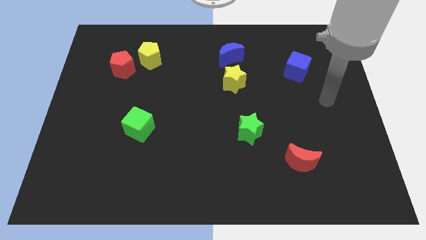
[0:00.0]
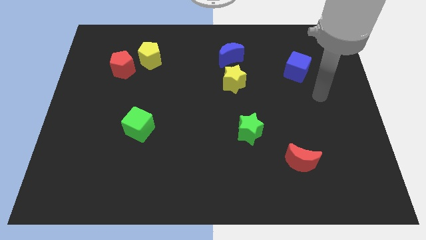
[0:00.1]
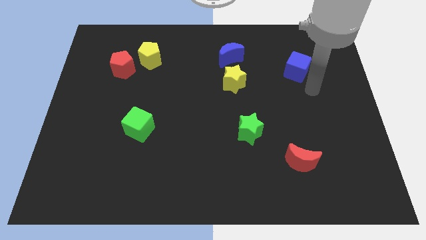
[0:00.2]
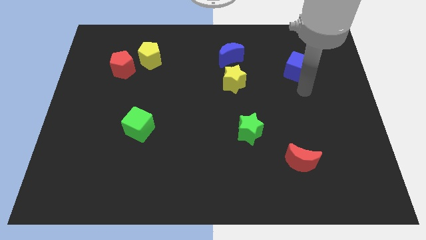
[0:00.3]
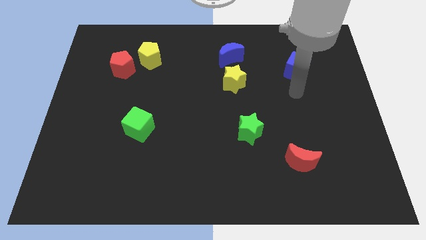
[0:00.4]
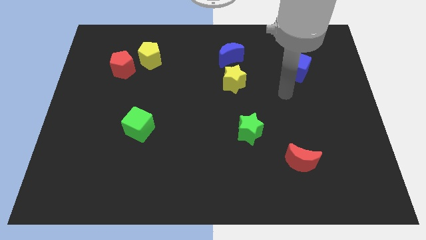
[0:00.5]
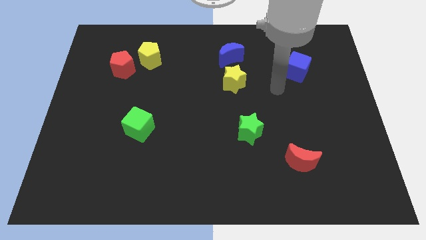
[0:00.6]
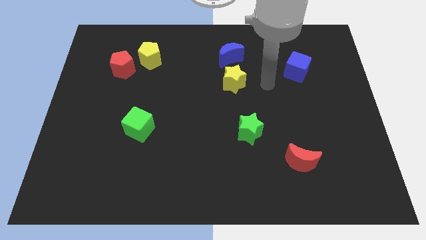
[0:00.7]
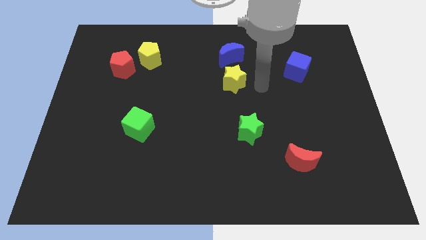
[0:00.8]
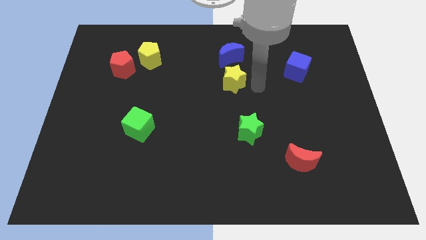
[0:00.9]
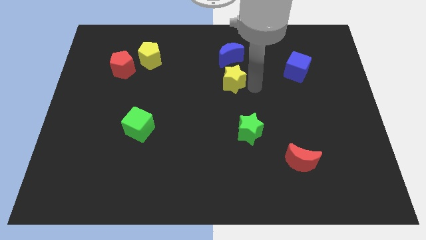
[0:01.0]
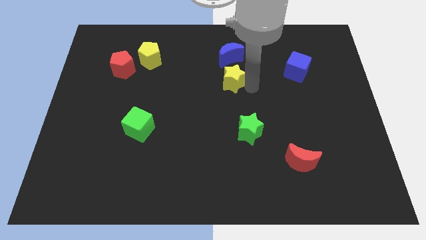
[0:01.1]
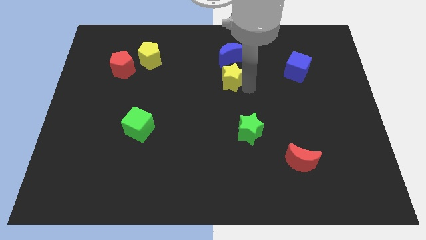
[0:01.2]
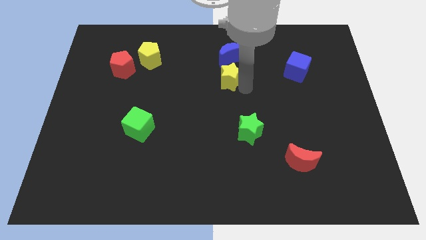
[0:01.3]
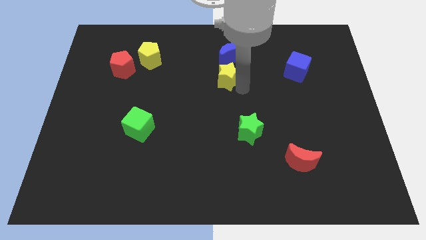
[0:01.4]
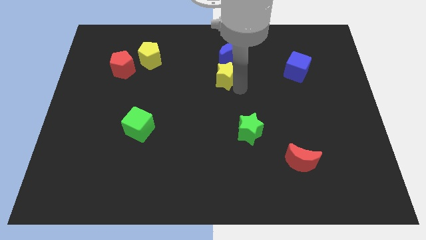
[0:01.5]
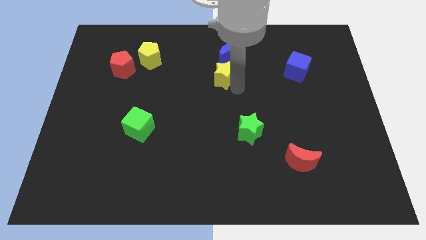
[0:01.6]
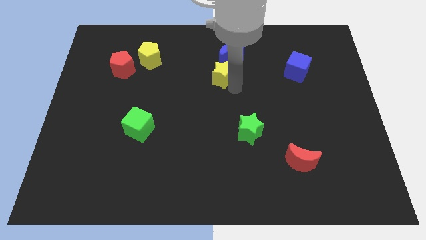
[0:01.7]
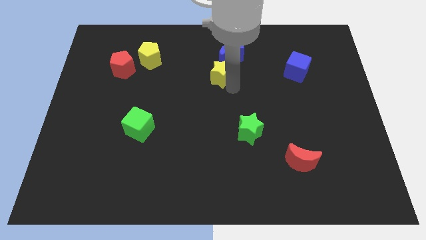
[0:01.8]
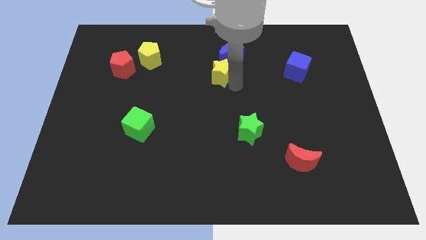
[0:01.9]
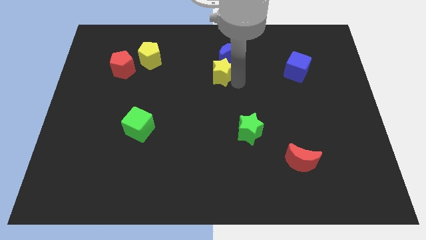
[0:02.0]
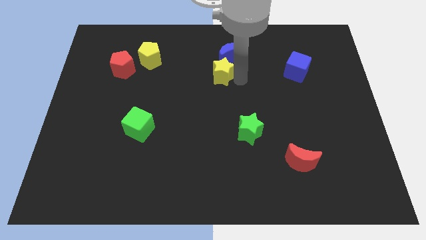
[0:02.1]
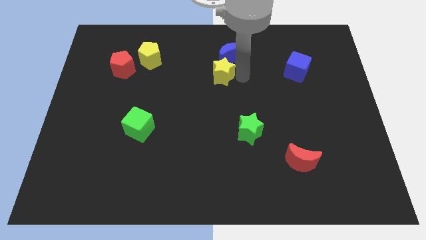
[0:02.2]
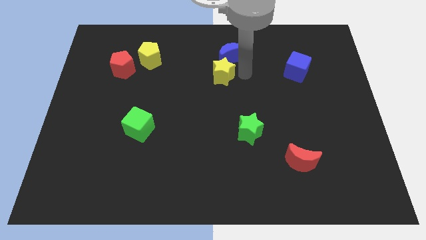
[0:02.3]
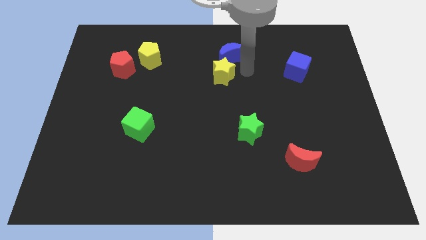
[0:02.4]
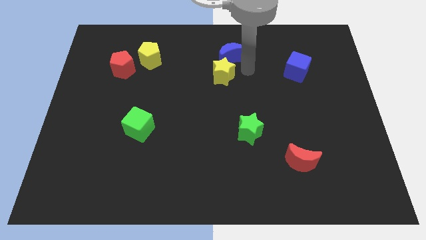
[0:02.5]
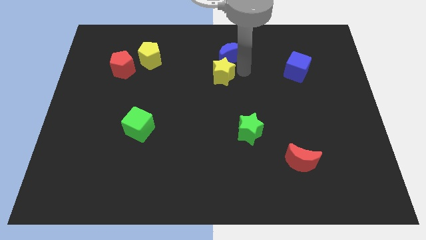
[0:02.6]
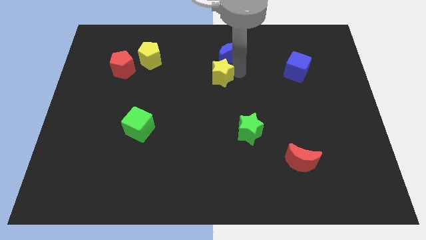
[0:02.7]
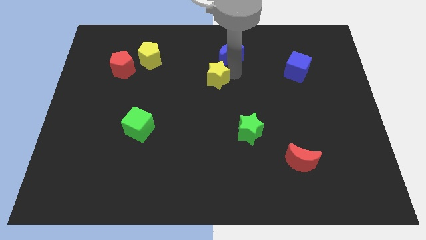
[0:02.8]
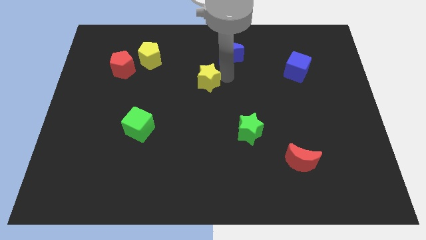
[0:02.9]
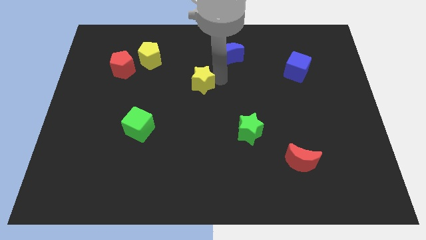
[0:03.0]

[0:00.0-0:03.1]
push the yellow star a little left

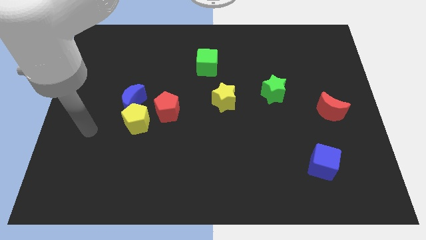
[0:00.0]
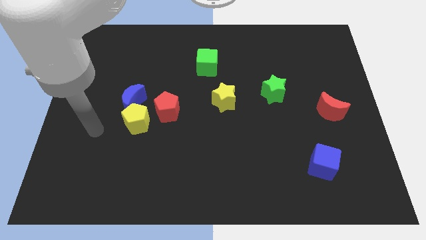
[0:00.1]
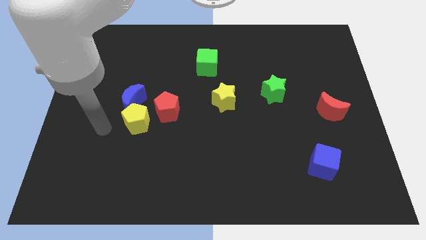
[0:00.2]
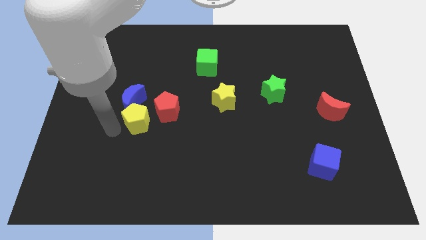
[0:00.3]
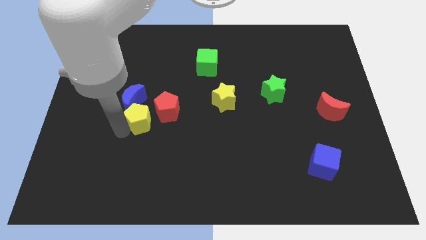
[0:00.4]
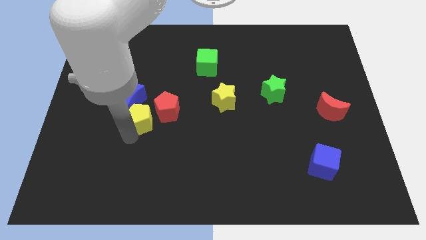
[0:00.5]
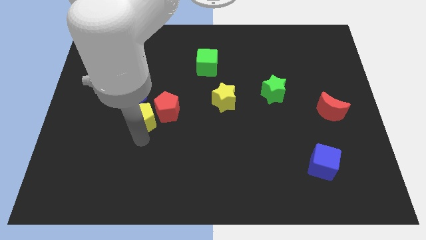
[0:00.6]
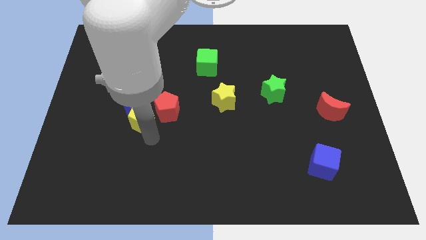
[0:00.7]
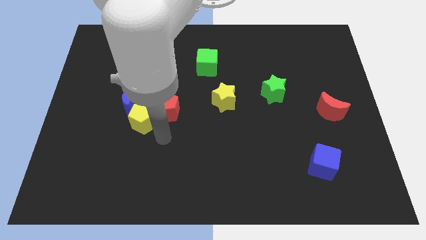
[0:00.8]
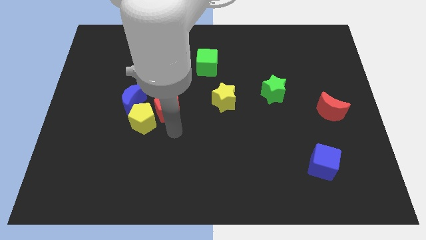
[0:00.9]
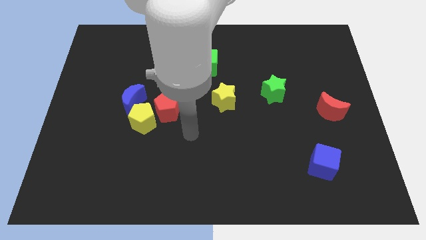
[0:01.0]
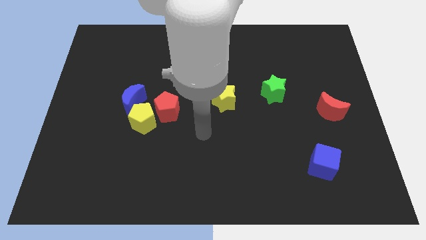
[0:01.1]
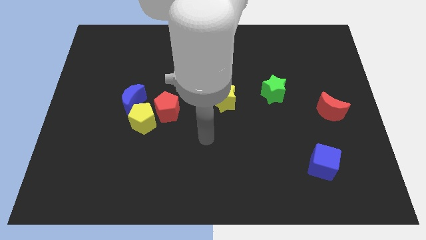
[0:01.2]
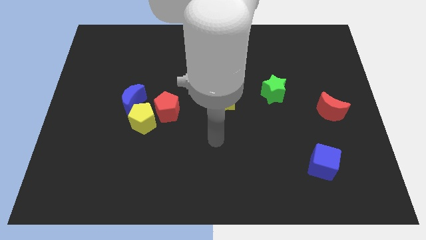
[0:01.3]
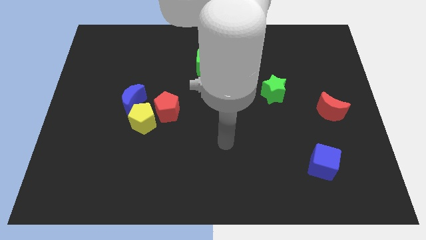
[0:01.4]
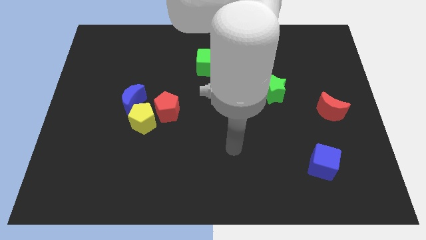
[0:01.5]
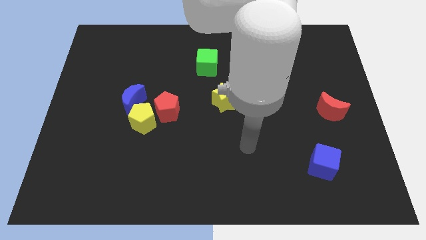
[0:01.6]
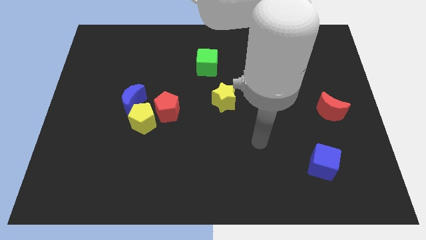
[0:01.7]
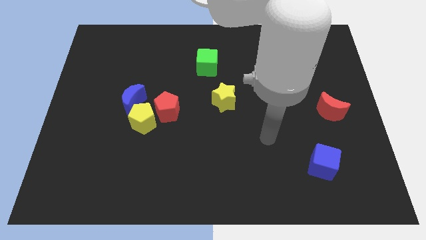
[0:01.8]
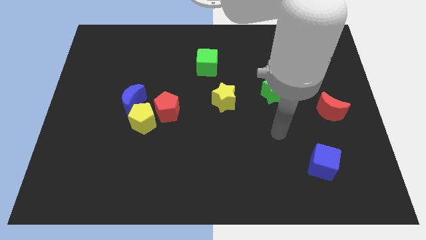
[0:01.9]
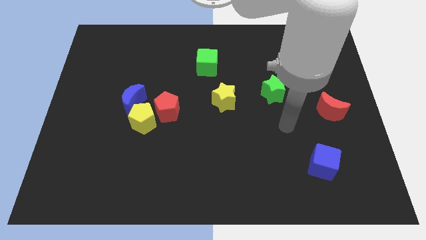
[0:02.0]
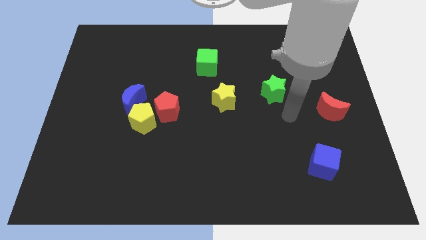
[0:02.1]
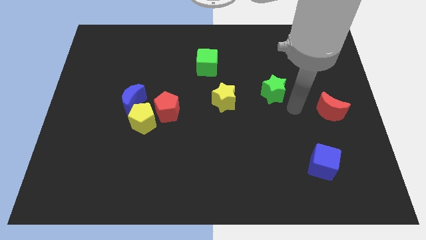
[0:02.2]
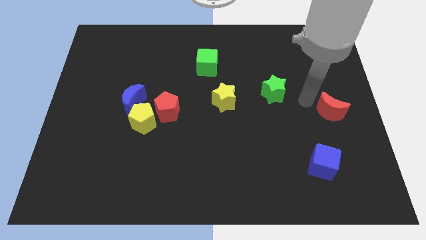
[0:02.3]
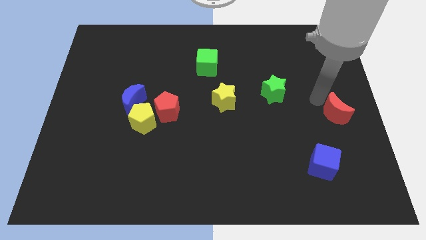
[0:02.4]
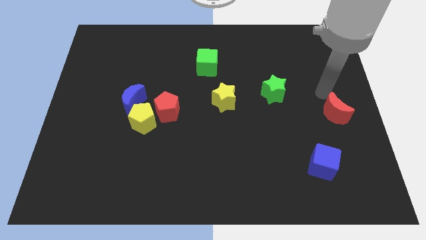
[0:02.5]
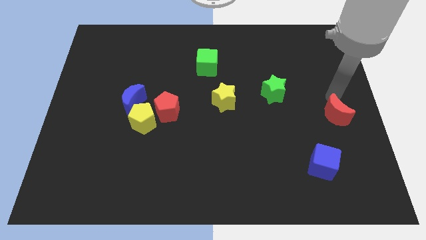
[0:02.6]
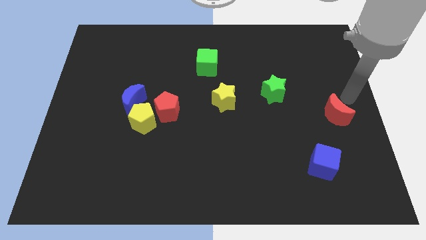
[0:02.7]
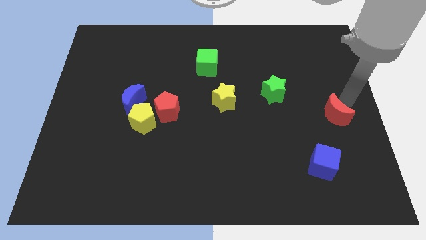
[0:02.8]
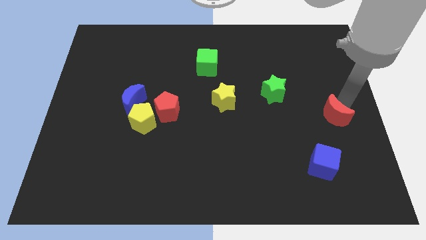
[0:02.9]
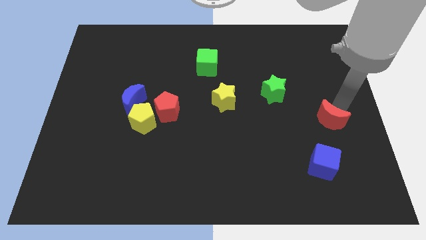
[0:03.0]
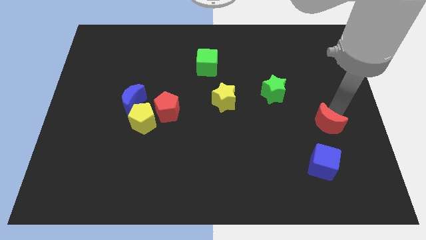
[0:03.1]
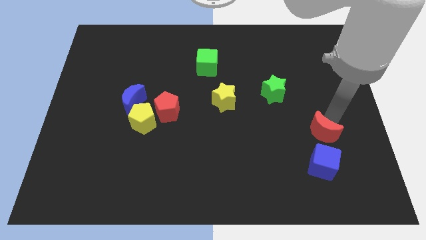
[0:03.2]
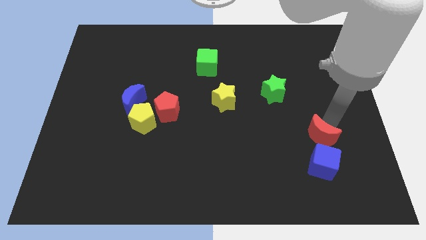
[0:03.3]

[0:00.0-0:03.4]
slightly push the red moon down and then left

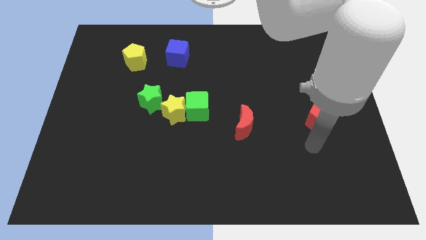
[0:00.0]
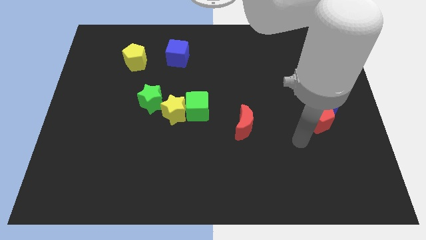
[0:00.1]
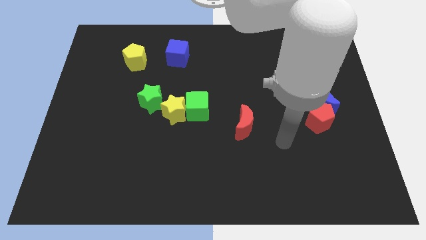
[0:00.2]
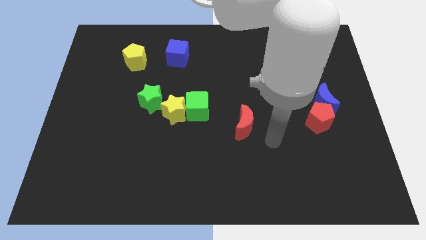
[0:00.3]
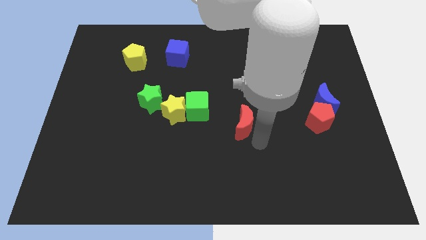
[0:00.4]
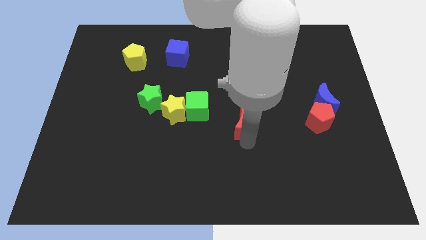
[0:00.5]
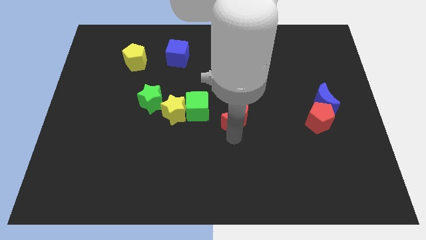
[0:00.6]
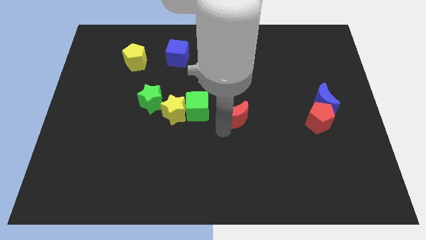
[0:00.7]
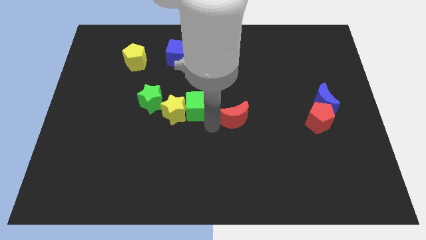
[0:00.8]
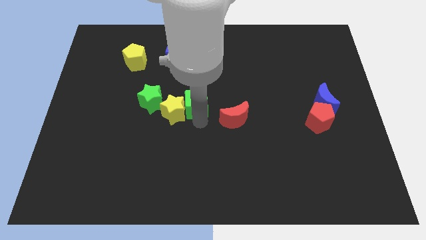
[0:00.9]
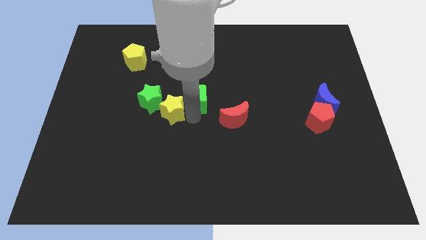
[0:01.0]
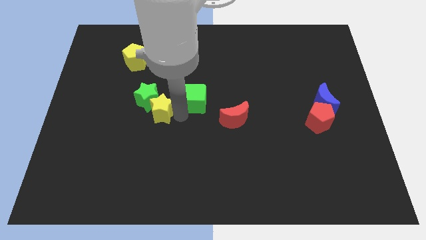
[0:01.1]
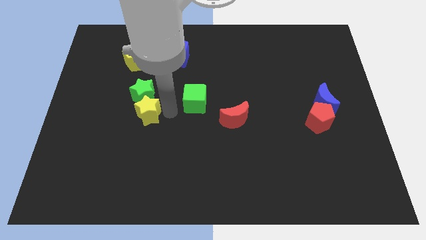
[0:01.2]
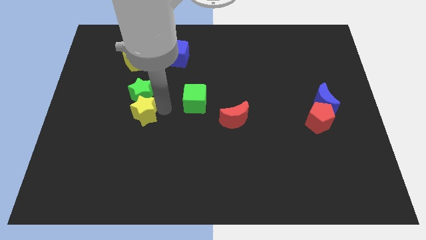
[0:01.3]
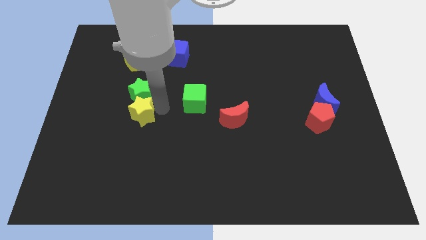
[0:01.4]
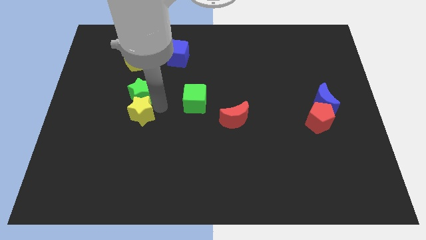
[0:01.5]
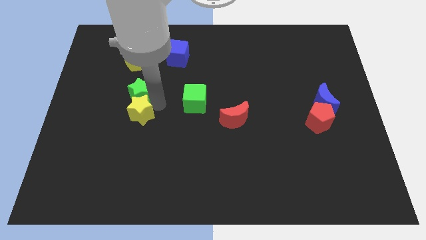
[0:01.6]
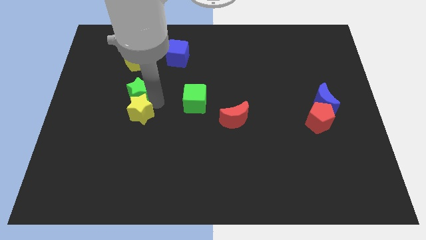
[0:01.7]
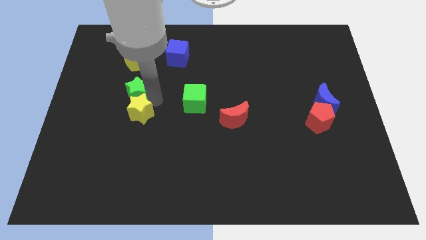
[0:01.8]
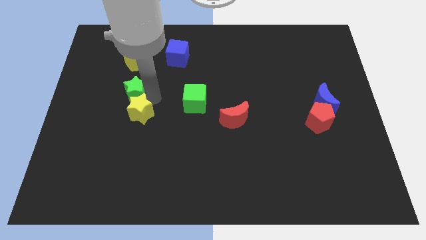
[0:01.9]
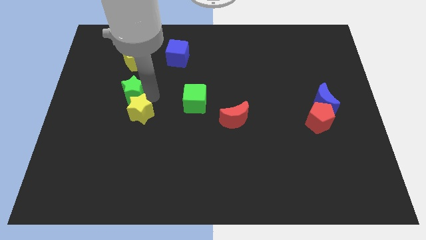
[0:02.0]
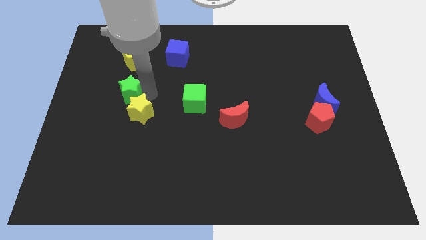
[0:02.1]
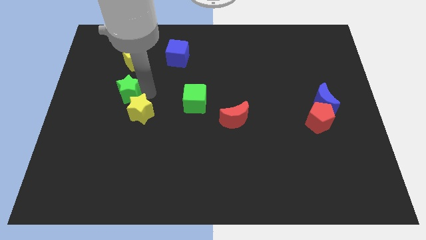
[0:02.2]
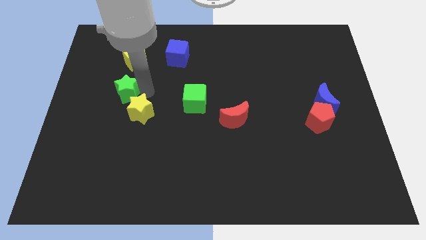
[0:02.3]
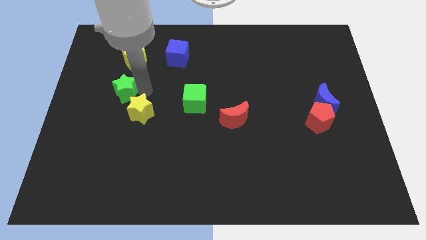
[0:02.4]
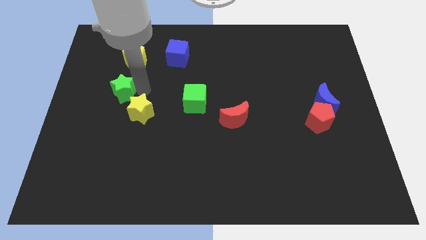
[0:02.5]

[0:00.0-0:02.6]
slightly move the green star diagonally upwards and to the left
